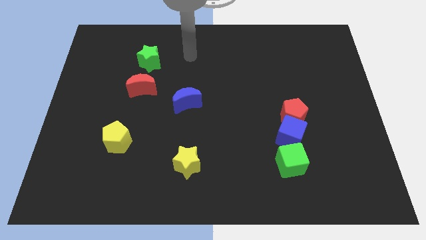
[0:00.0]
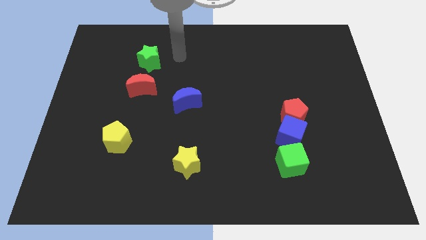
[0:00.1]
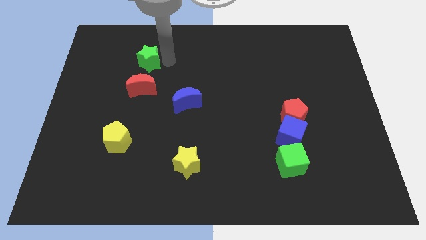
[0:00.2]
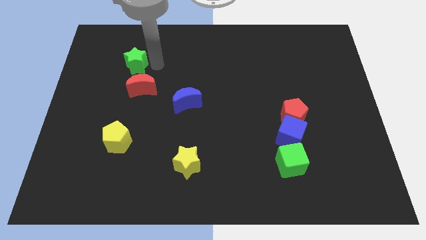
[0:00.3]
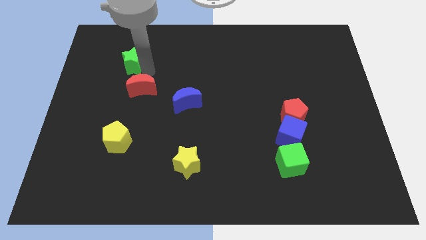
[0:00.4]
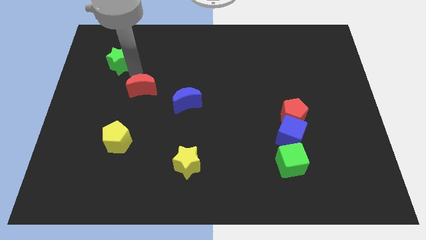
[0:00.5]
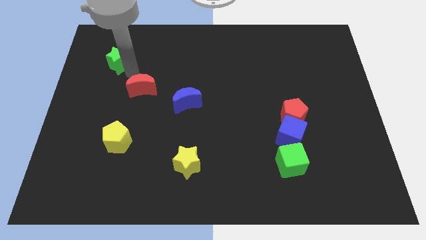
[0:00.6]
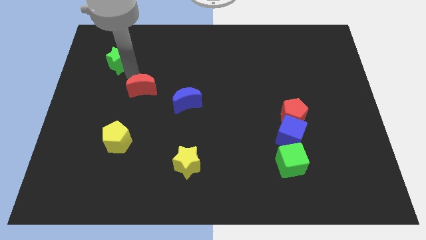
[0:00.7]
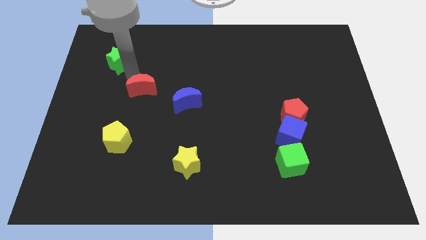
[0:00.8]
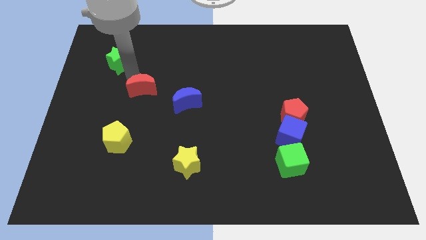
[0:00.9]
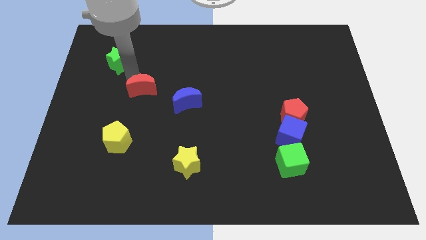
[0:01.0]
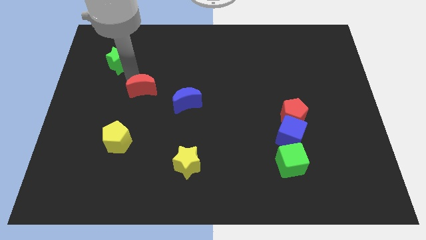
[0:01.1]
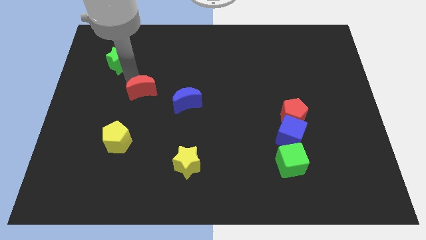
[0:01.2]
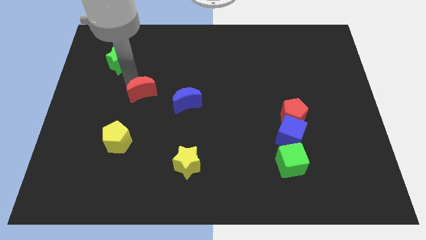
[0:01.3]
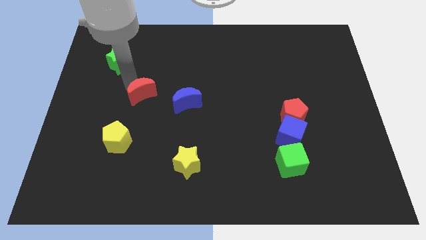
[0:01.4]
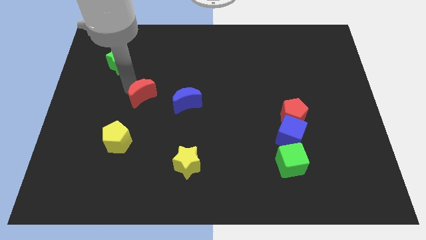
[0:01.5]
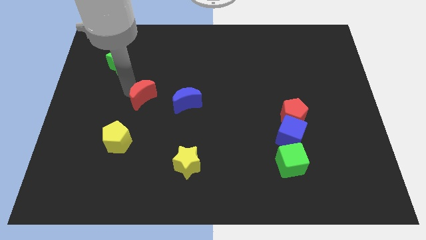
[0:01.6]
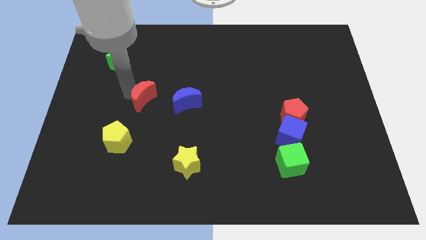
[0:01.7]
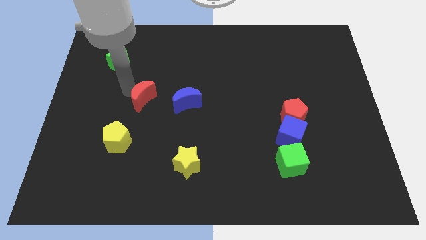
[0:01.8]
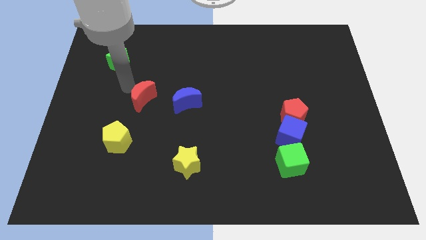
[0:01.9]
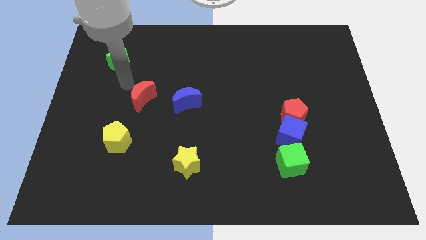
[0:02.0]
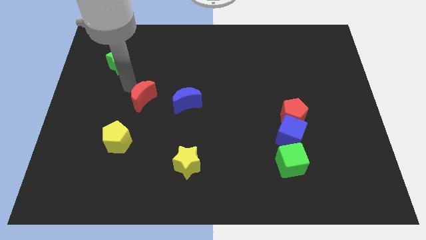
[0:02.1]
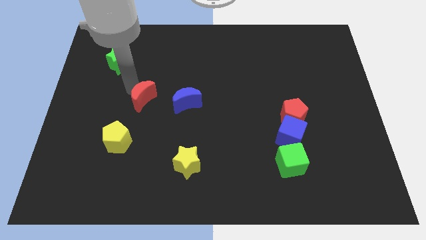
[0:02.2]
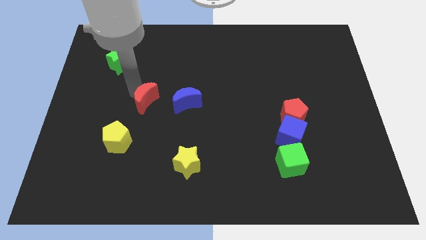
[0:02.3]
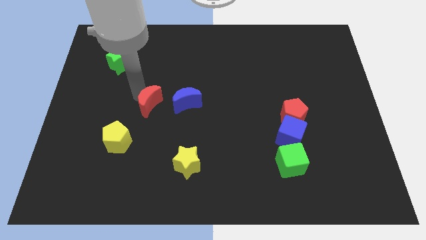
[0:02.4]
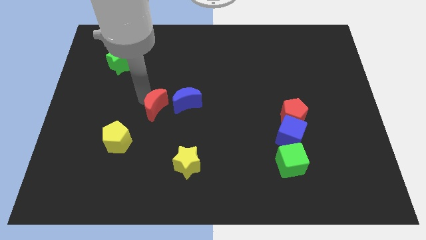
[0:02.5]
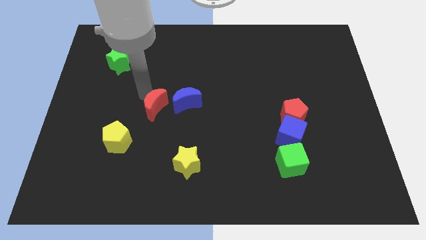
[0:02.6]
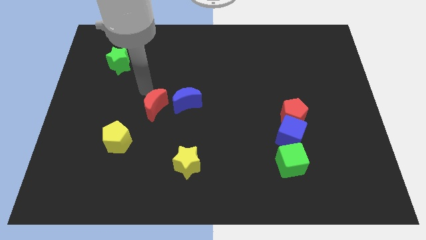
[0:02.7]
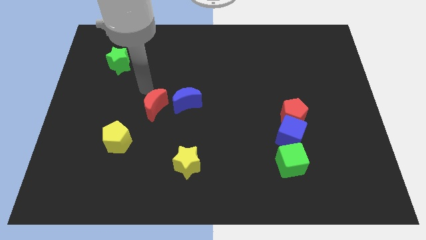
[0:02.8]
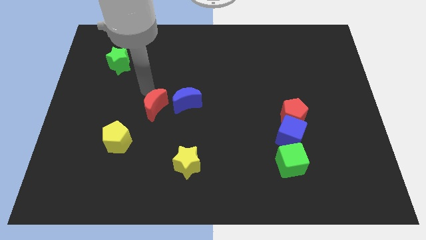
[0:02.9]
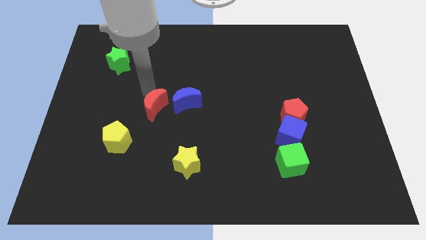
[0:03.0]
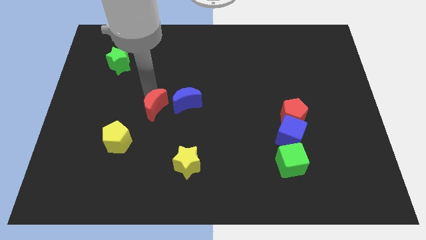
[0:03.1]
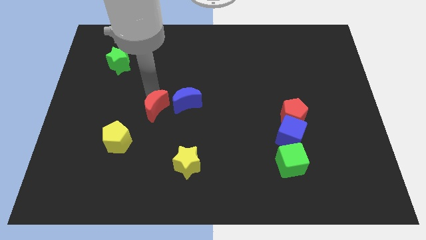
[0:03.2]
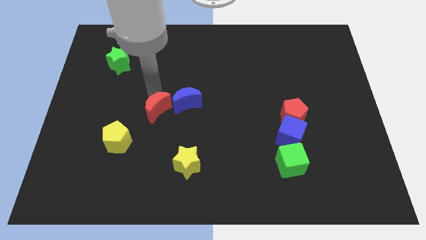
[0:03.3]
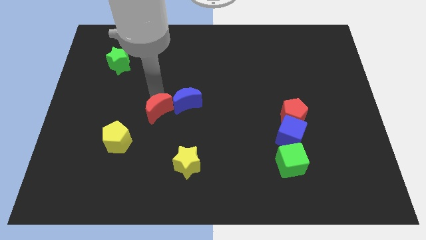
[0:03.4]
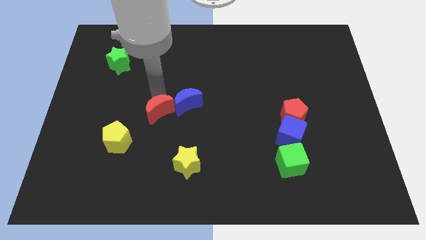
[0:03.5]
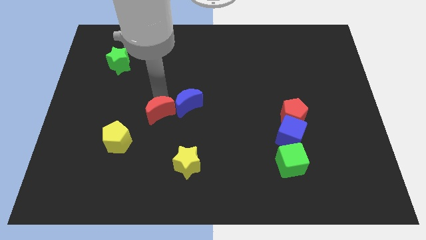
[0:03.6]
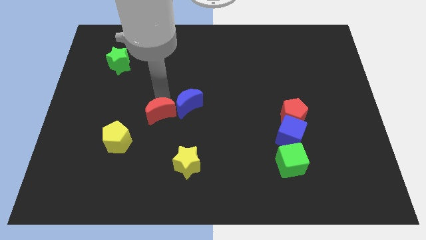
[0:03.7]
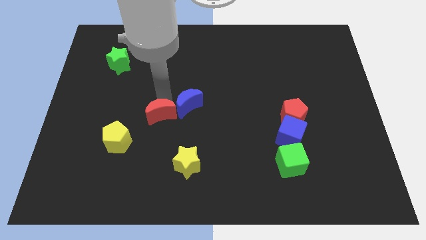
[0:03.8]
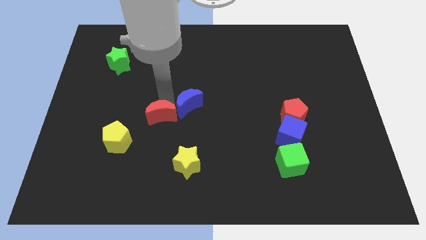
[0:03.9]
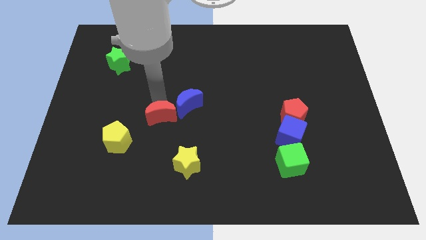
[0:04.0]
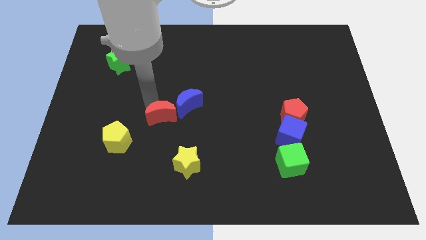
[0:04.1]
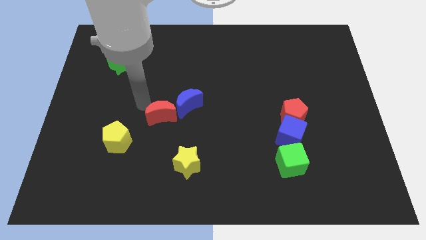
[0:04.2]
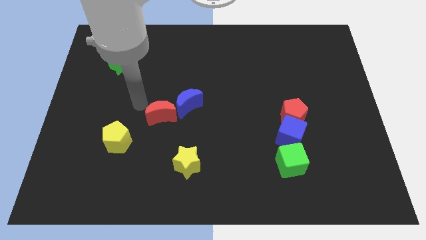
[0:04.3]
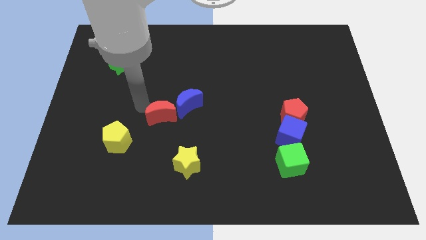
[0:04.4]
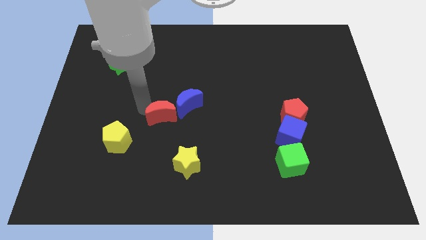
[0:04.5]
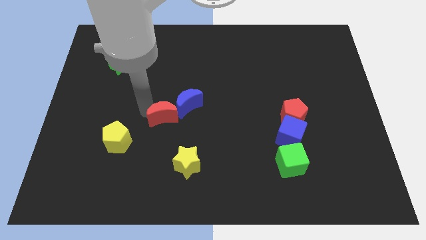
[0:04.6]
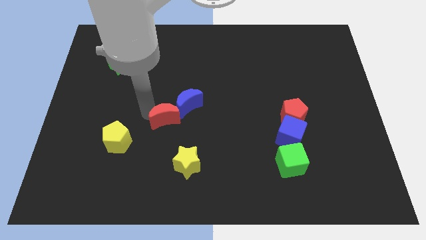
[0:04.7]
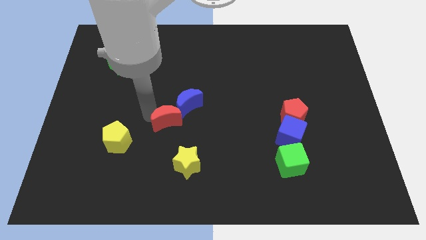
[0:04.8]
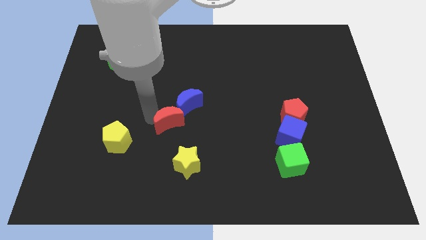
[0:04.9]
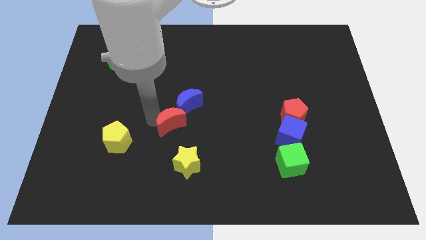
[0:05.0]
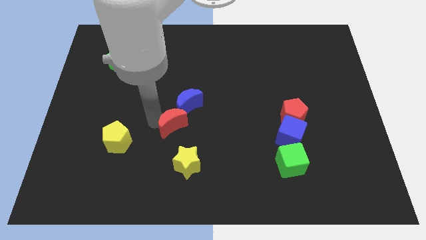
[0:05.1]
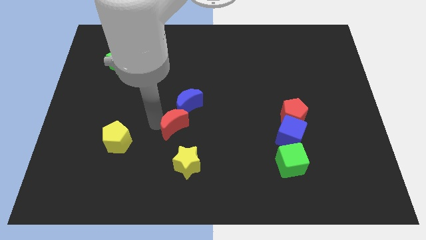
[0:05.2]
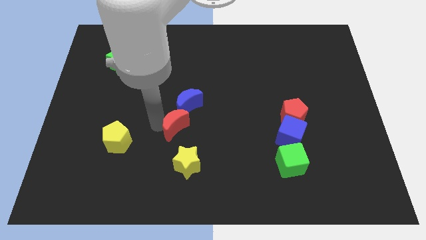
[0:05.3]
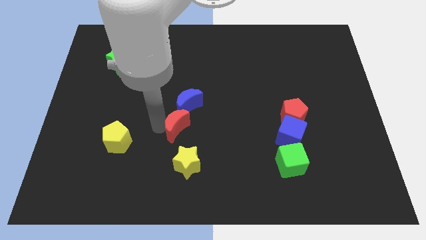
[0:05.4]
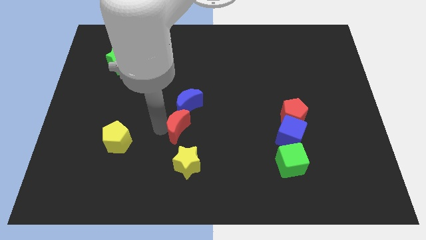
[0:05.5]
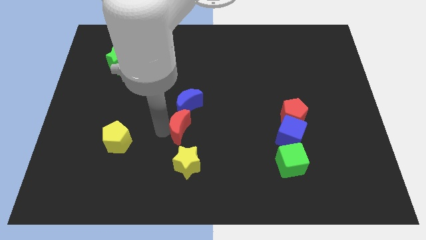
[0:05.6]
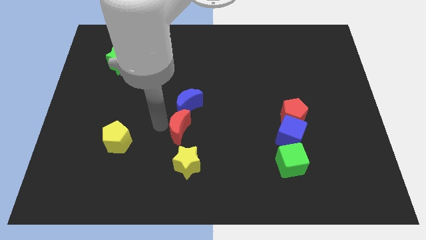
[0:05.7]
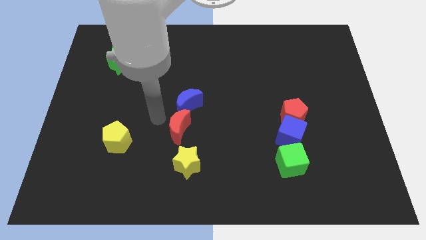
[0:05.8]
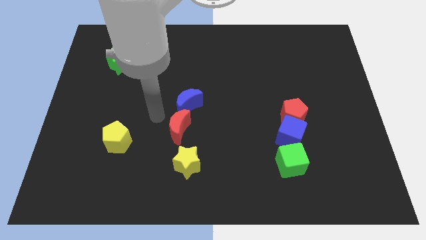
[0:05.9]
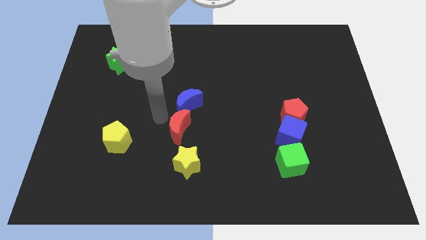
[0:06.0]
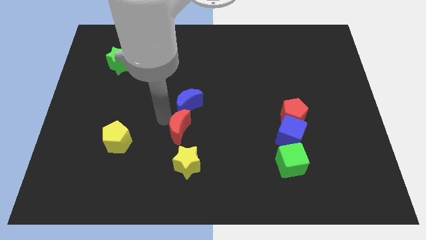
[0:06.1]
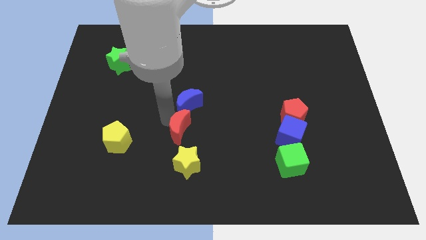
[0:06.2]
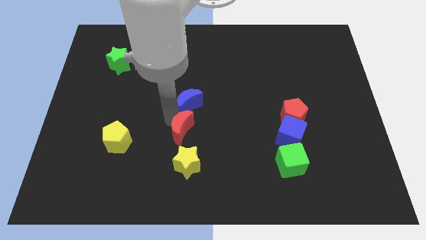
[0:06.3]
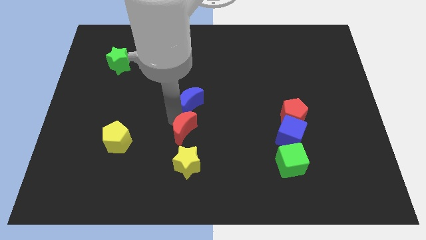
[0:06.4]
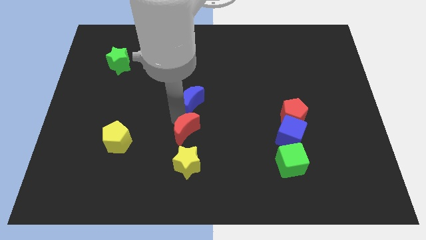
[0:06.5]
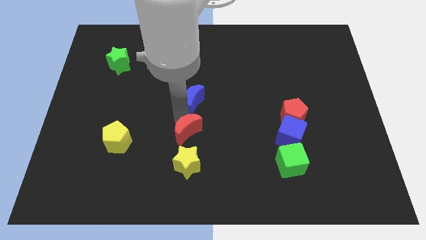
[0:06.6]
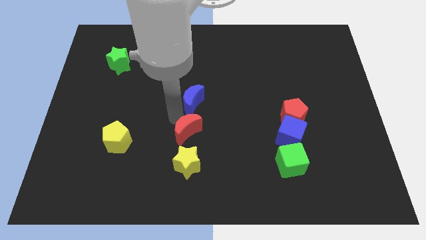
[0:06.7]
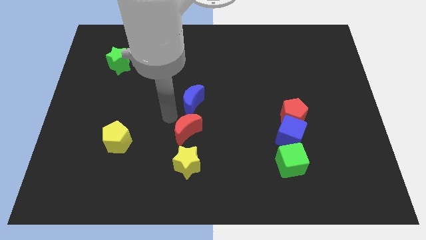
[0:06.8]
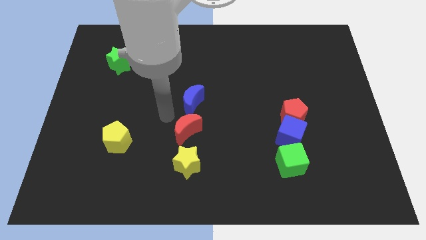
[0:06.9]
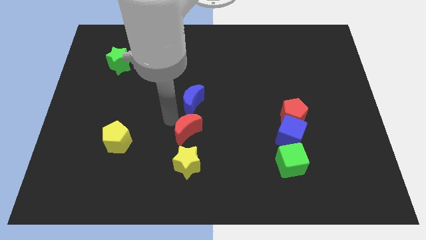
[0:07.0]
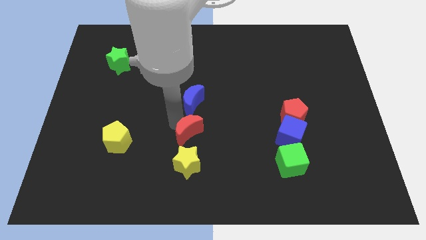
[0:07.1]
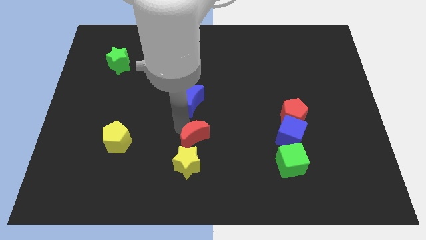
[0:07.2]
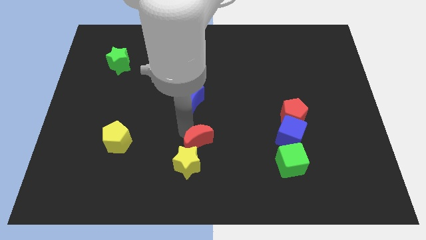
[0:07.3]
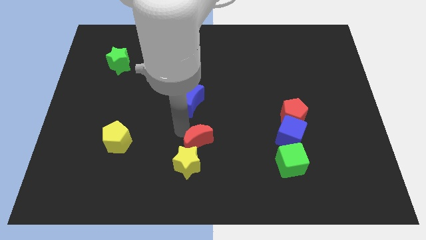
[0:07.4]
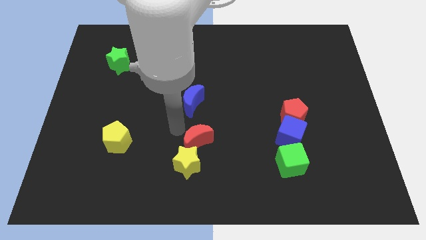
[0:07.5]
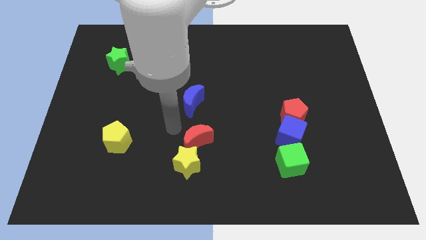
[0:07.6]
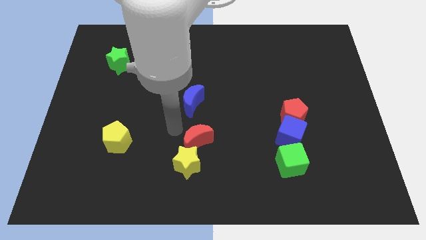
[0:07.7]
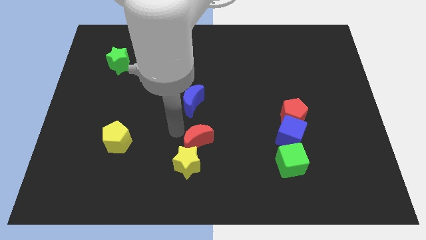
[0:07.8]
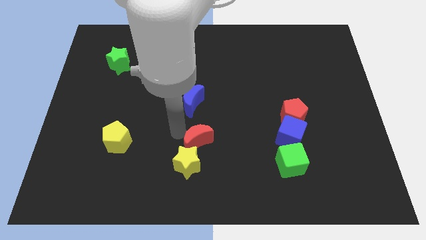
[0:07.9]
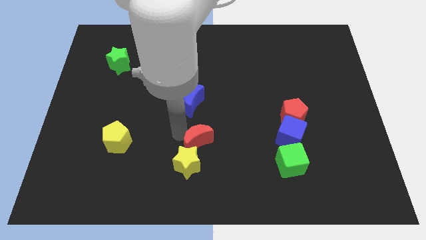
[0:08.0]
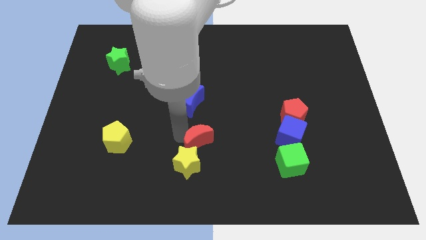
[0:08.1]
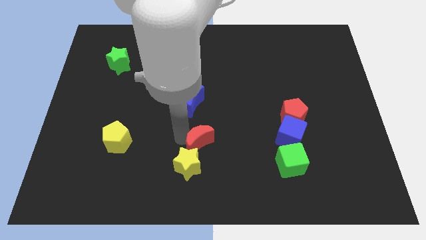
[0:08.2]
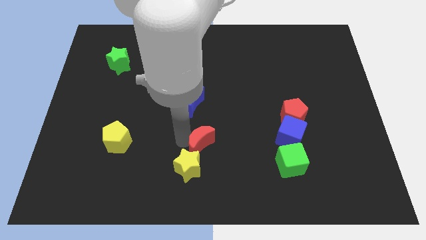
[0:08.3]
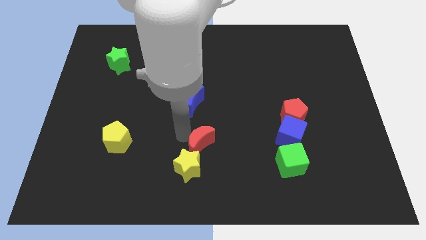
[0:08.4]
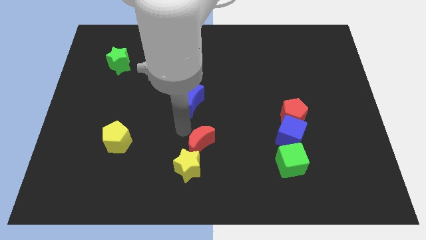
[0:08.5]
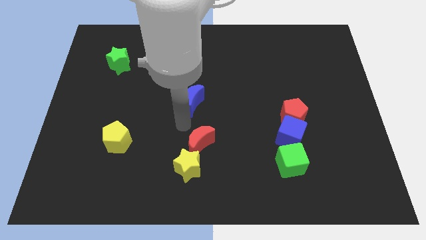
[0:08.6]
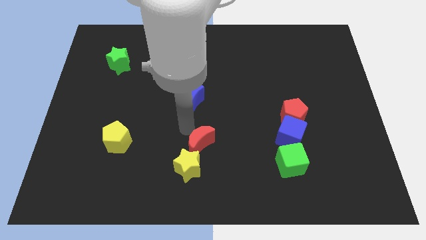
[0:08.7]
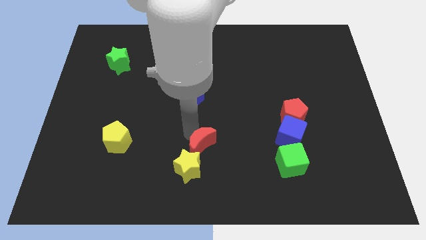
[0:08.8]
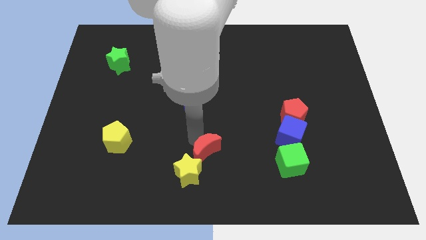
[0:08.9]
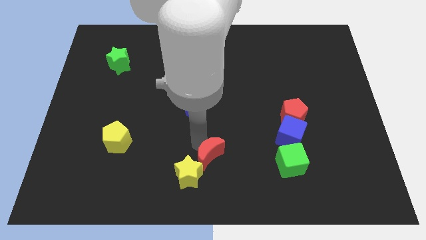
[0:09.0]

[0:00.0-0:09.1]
slide the red moon to the bottom side
